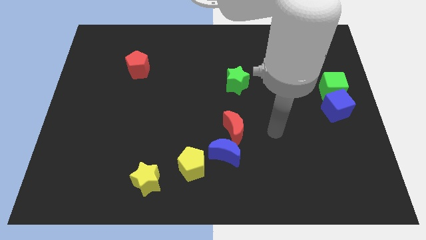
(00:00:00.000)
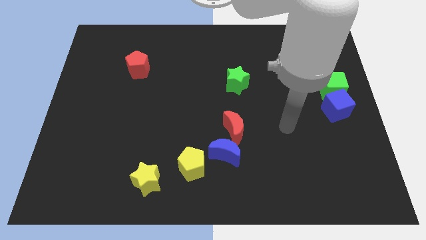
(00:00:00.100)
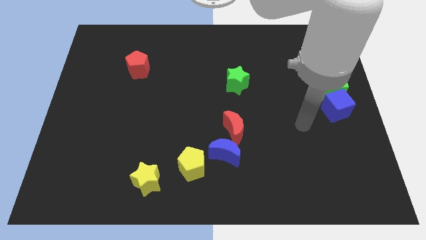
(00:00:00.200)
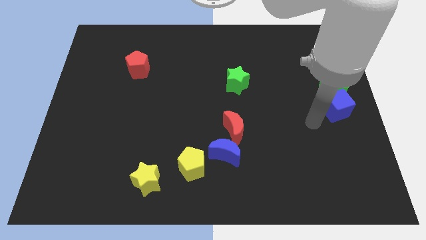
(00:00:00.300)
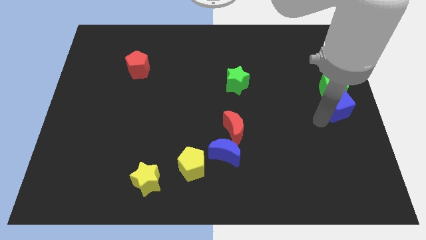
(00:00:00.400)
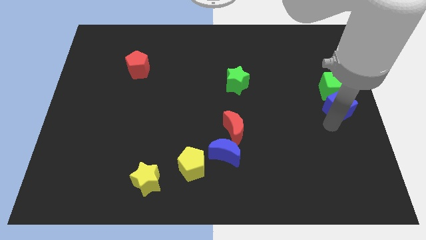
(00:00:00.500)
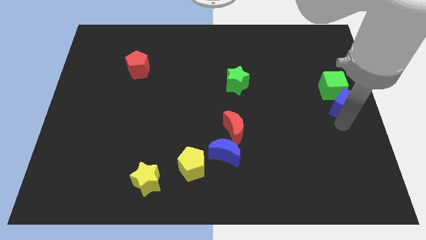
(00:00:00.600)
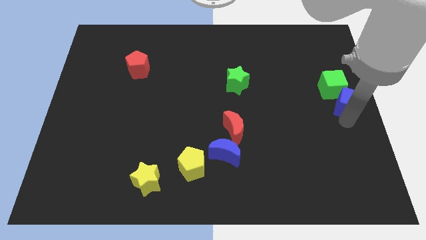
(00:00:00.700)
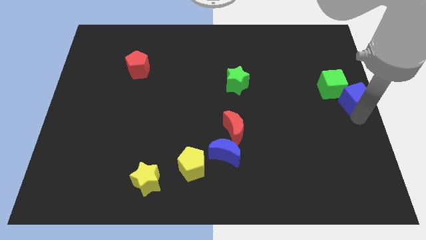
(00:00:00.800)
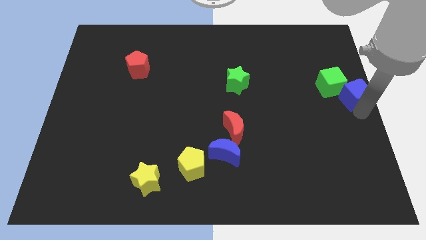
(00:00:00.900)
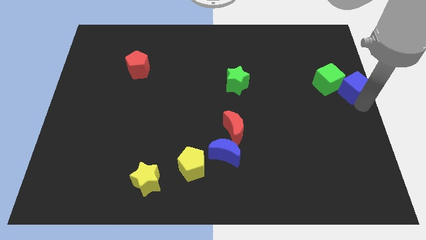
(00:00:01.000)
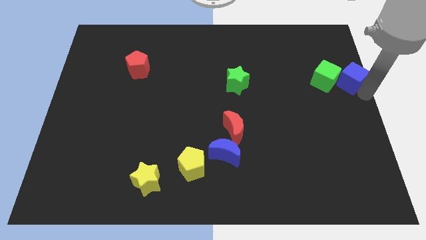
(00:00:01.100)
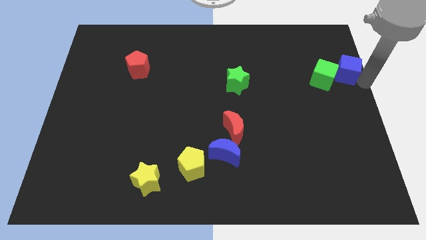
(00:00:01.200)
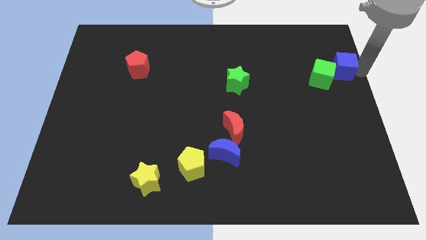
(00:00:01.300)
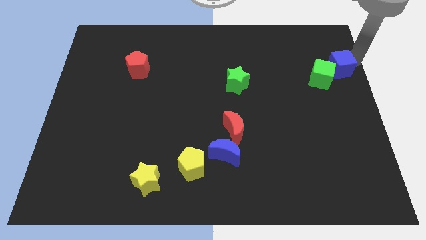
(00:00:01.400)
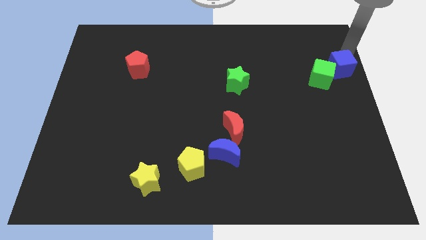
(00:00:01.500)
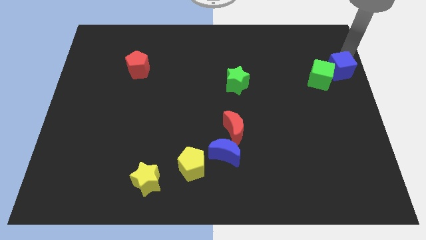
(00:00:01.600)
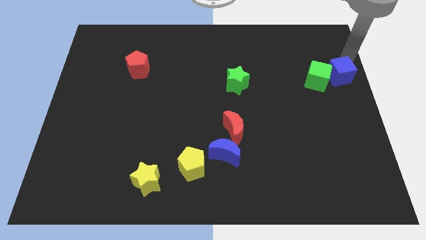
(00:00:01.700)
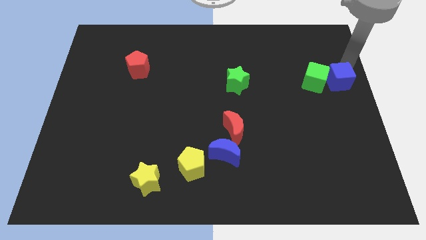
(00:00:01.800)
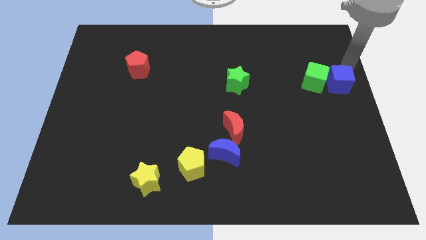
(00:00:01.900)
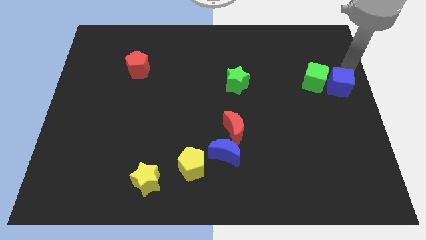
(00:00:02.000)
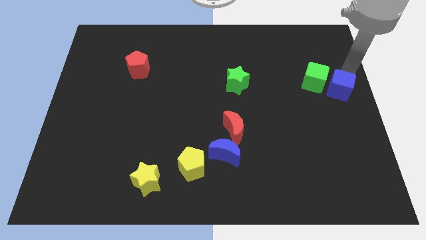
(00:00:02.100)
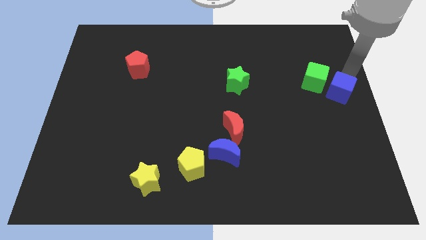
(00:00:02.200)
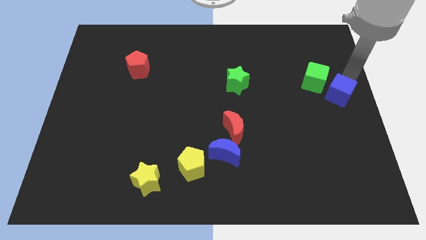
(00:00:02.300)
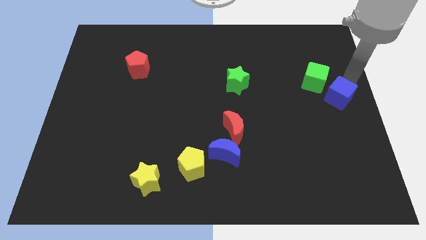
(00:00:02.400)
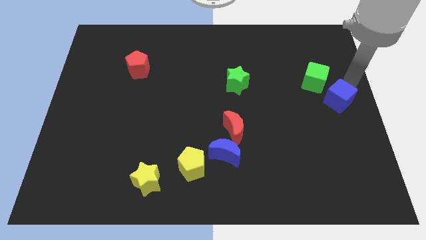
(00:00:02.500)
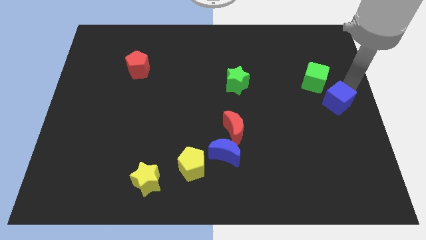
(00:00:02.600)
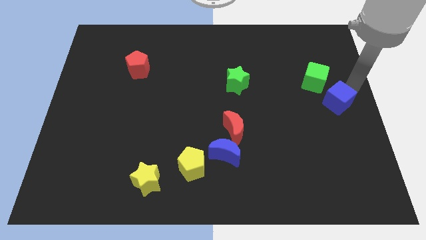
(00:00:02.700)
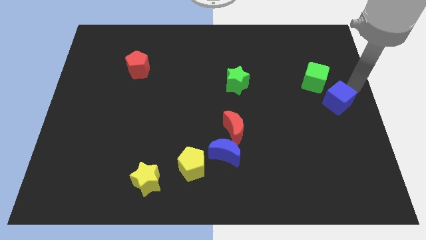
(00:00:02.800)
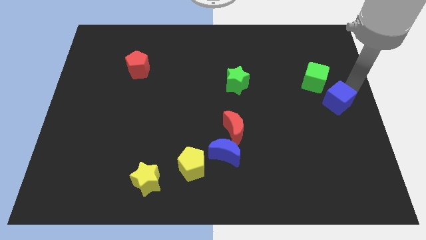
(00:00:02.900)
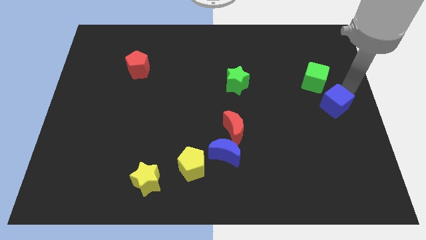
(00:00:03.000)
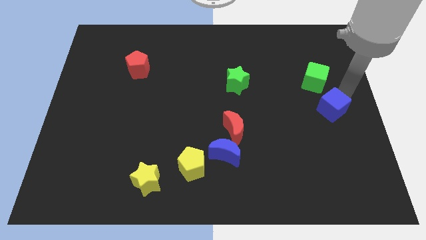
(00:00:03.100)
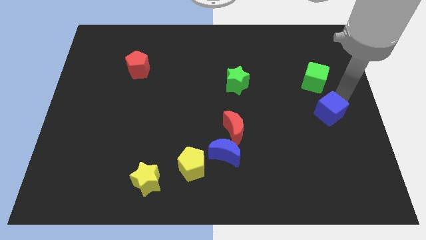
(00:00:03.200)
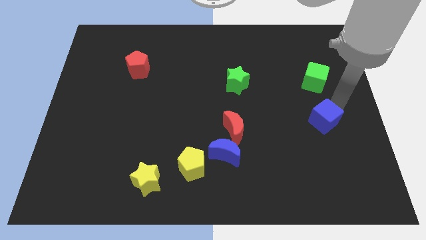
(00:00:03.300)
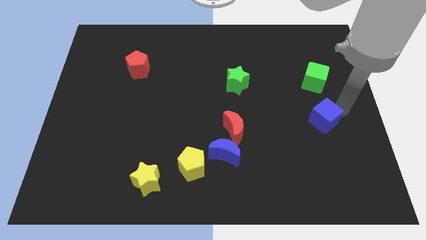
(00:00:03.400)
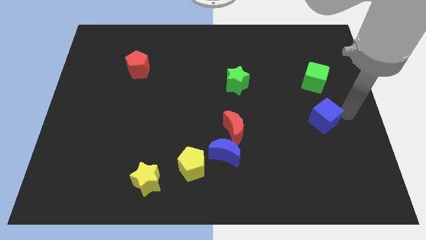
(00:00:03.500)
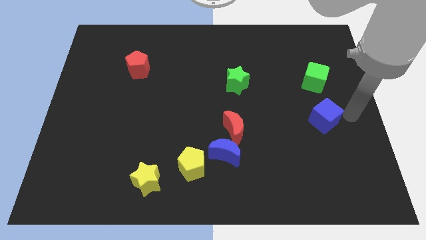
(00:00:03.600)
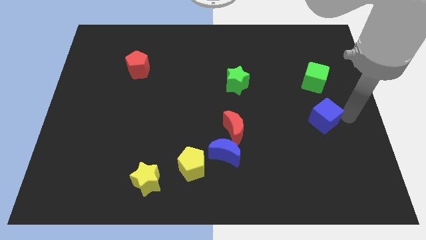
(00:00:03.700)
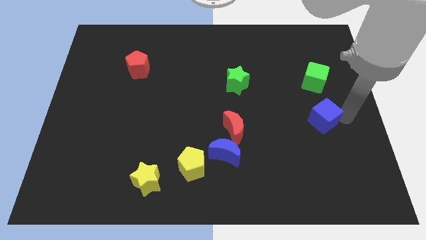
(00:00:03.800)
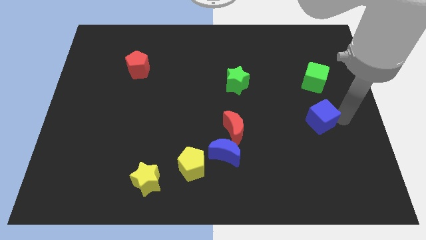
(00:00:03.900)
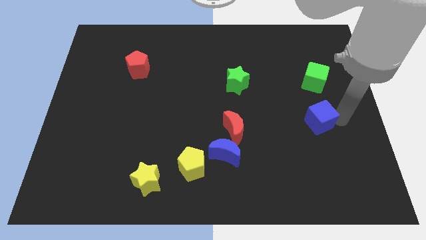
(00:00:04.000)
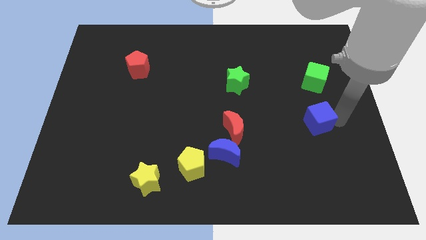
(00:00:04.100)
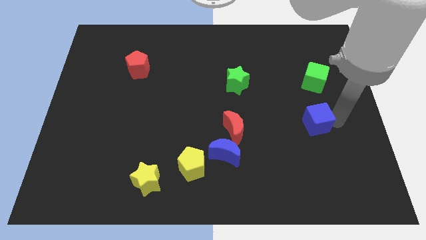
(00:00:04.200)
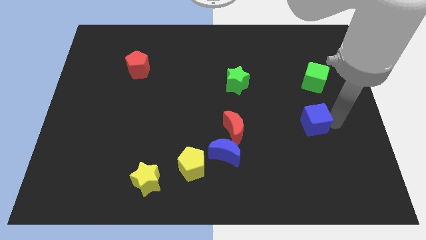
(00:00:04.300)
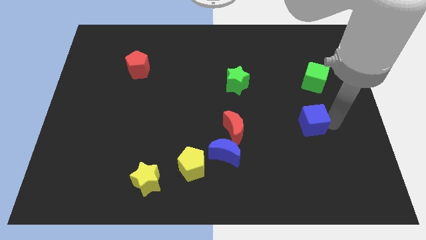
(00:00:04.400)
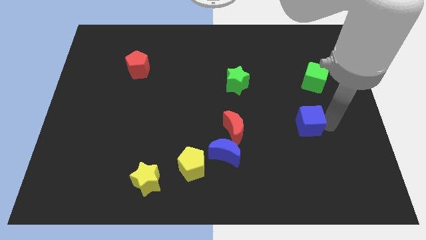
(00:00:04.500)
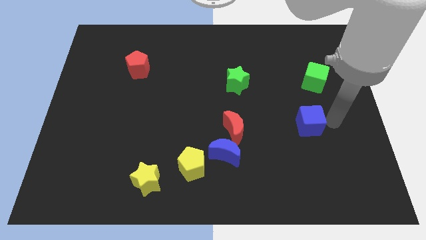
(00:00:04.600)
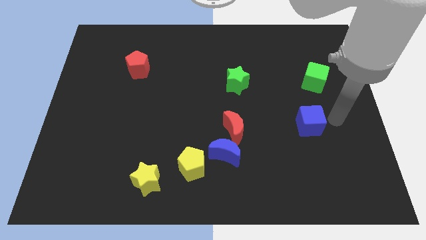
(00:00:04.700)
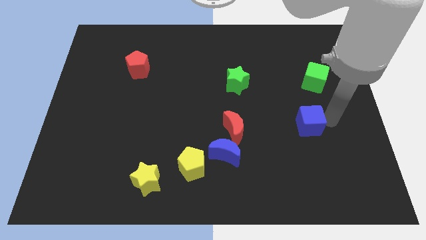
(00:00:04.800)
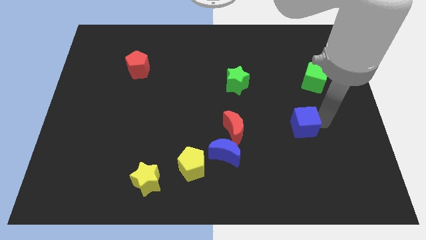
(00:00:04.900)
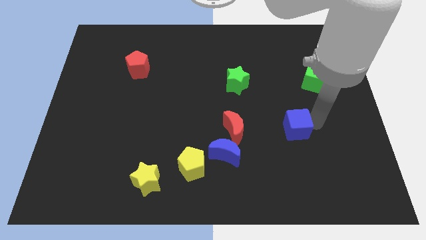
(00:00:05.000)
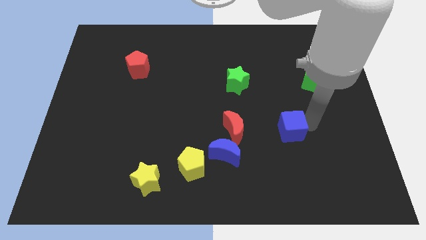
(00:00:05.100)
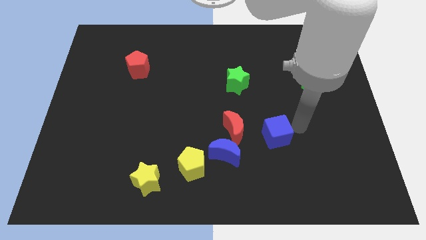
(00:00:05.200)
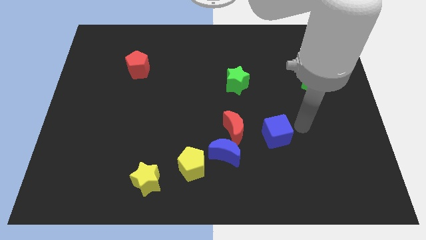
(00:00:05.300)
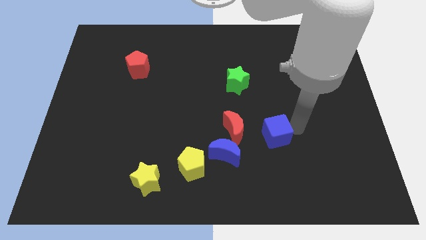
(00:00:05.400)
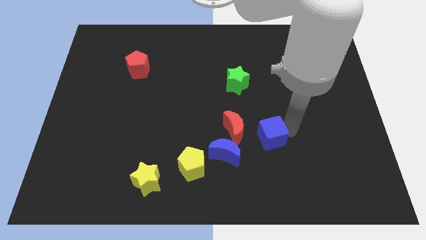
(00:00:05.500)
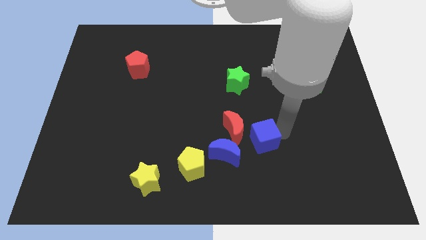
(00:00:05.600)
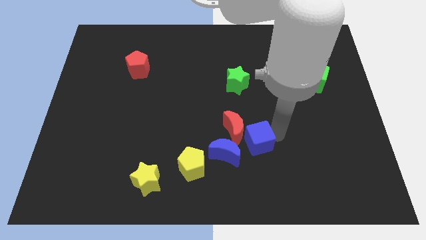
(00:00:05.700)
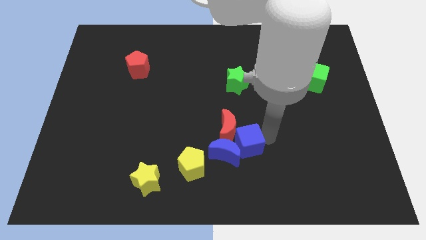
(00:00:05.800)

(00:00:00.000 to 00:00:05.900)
push the blue cube next to the blue moon

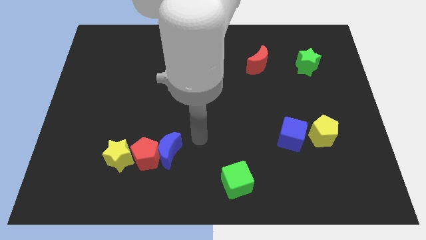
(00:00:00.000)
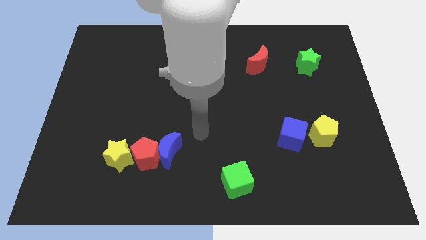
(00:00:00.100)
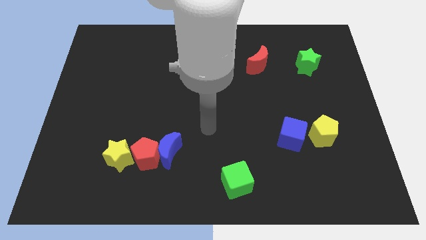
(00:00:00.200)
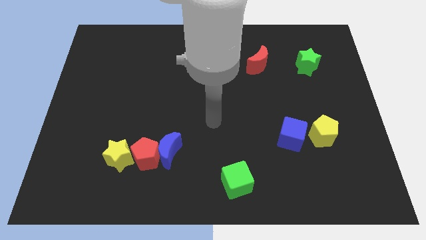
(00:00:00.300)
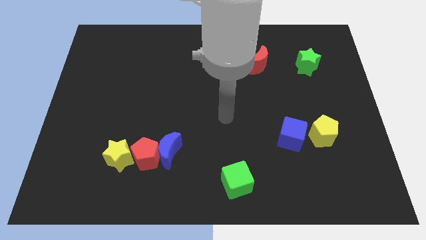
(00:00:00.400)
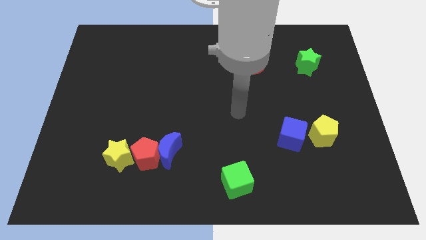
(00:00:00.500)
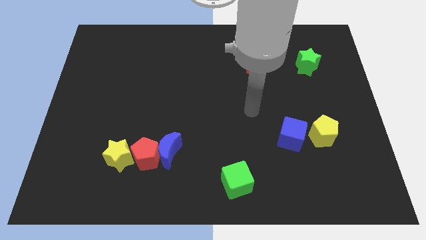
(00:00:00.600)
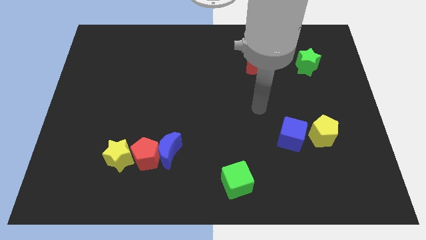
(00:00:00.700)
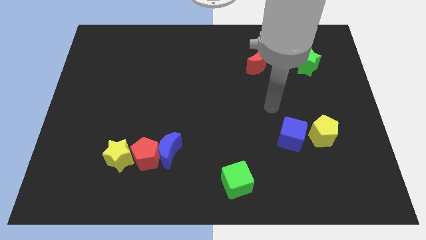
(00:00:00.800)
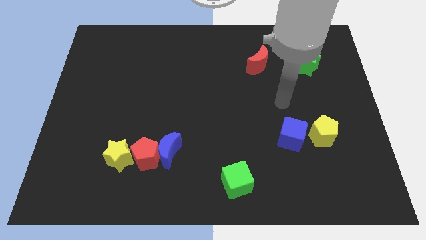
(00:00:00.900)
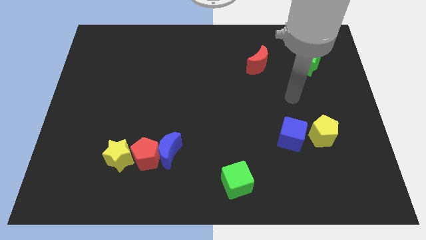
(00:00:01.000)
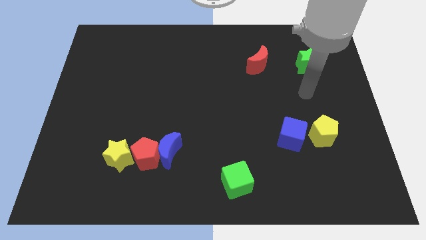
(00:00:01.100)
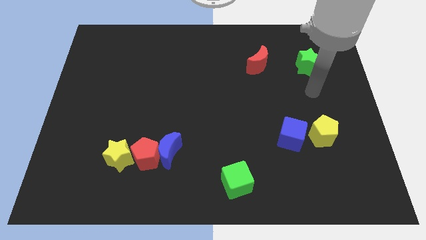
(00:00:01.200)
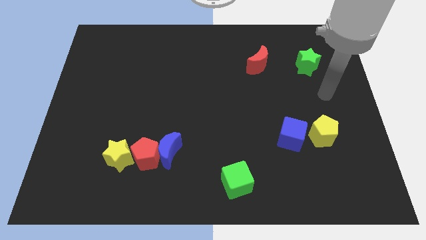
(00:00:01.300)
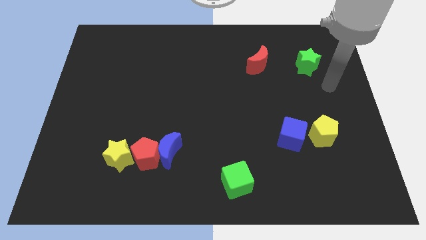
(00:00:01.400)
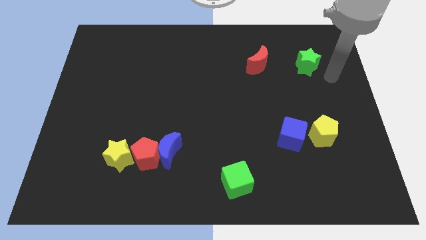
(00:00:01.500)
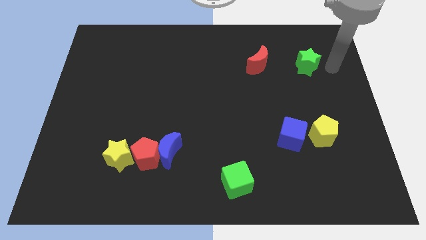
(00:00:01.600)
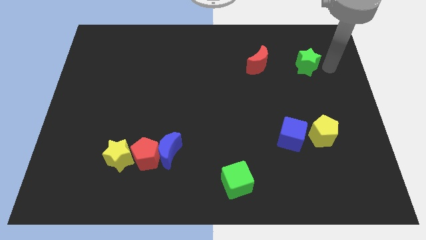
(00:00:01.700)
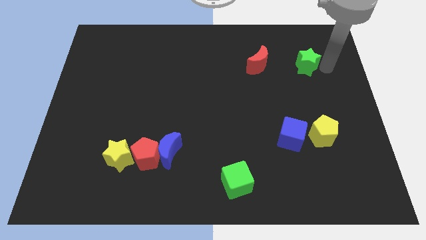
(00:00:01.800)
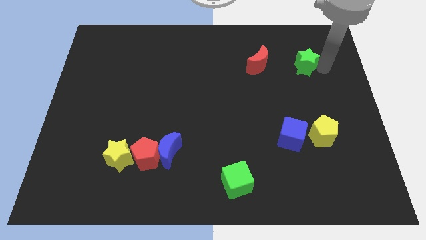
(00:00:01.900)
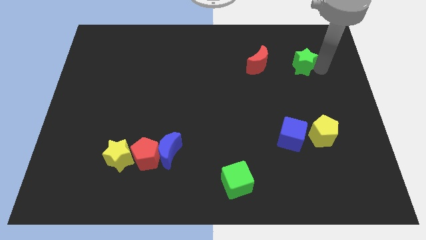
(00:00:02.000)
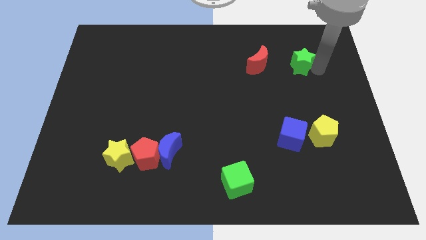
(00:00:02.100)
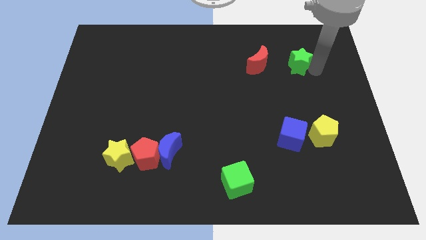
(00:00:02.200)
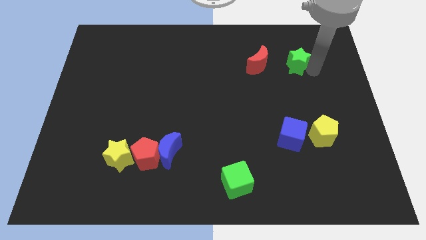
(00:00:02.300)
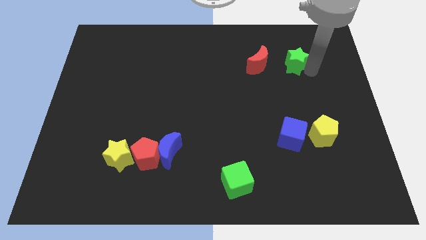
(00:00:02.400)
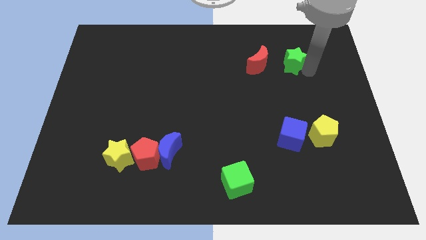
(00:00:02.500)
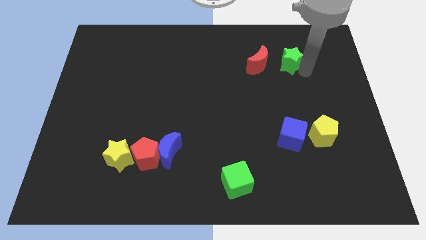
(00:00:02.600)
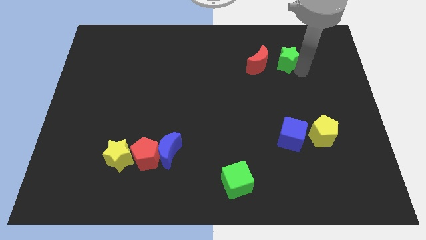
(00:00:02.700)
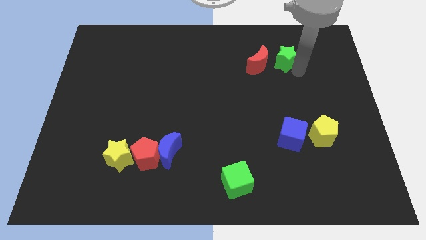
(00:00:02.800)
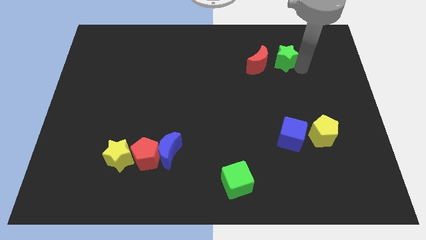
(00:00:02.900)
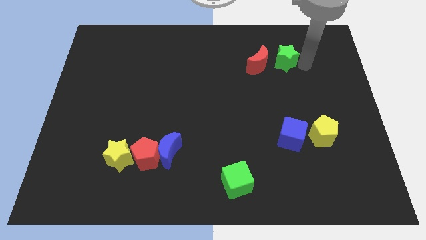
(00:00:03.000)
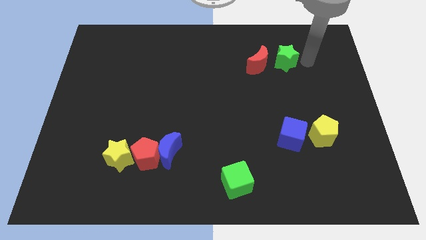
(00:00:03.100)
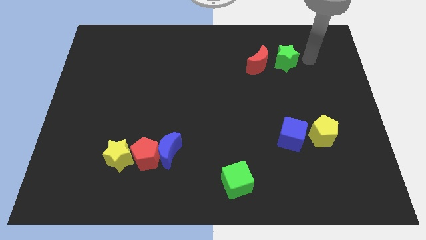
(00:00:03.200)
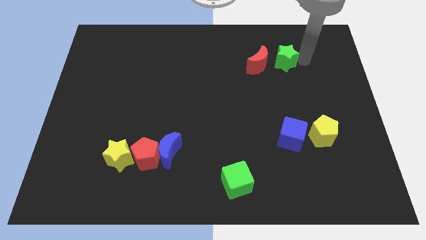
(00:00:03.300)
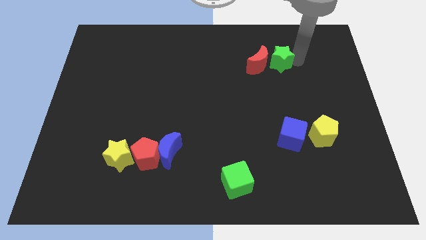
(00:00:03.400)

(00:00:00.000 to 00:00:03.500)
push the green star to the red moon
